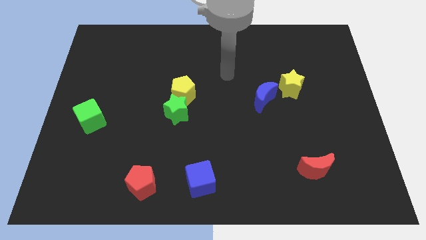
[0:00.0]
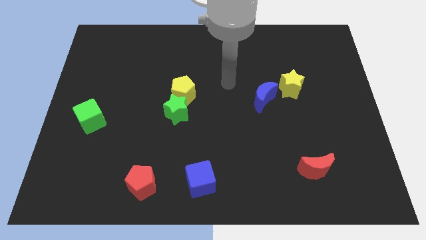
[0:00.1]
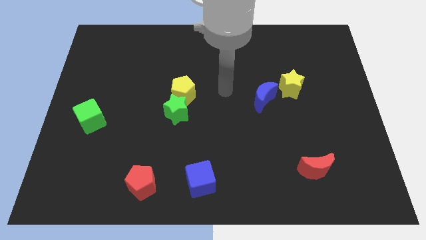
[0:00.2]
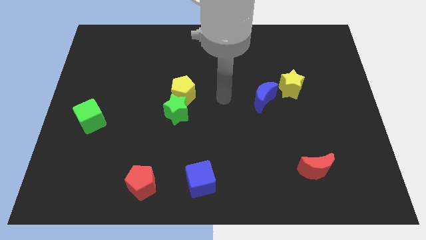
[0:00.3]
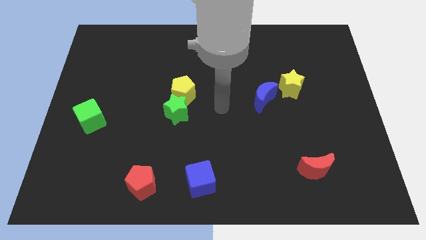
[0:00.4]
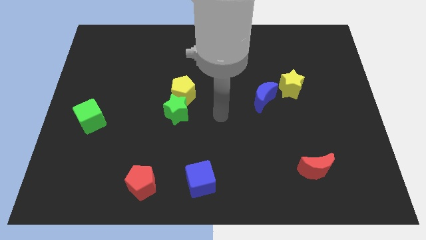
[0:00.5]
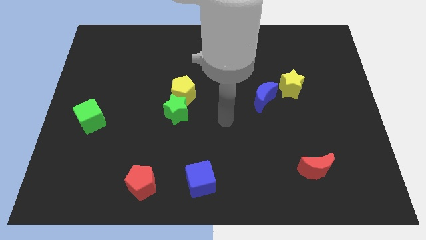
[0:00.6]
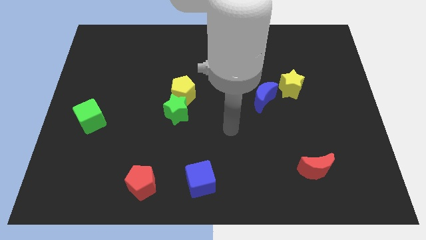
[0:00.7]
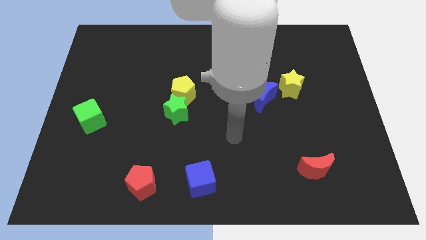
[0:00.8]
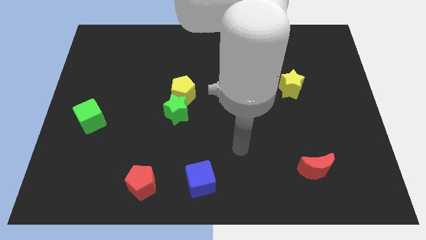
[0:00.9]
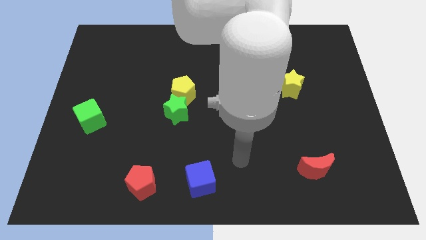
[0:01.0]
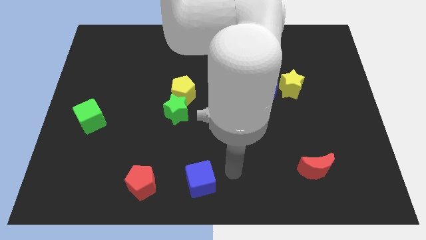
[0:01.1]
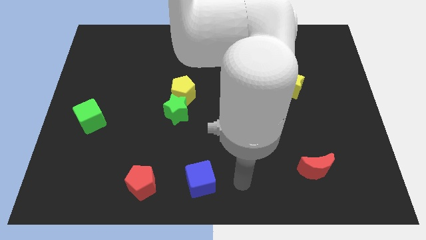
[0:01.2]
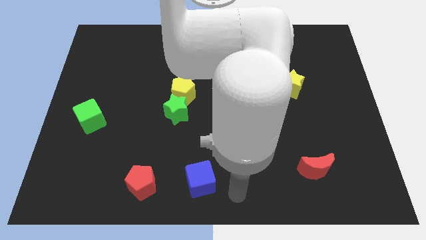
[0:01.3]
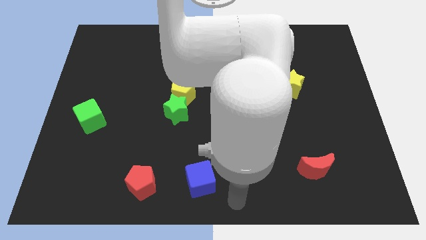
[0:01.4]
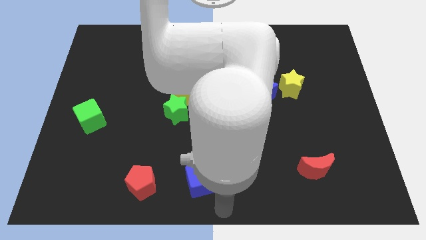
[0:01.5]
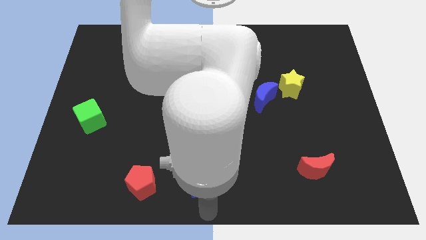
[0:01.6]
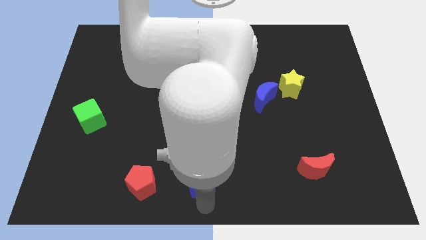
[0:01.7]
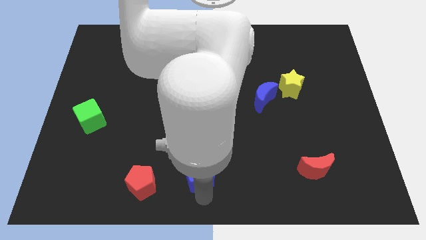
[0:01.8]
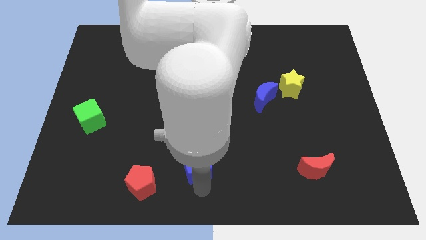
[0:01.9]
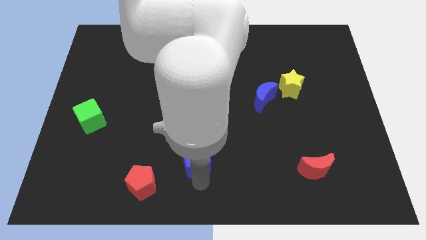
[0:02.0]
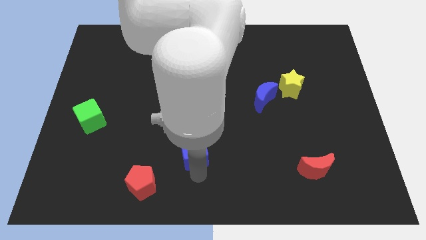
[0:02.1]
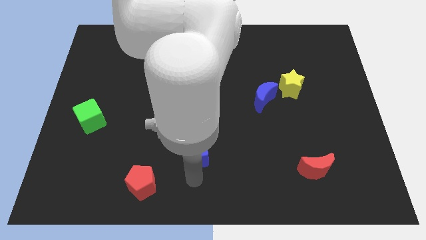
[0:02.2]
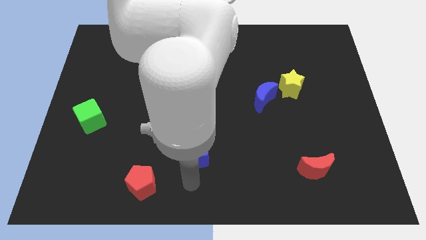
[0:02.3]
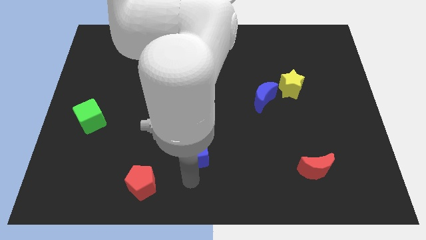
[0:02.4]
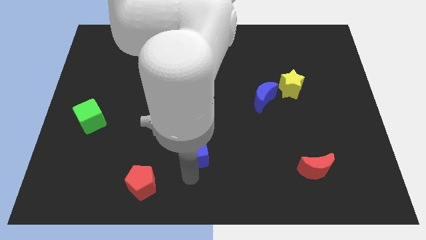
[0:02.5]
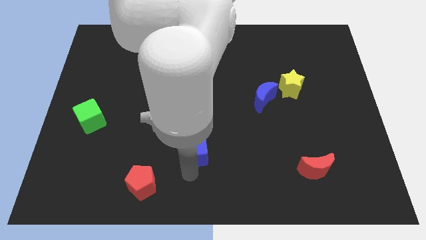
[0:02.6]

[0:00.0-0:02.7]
slide the blue cube up a bit

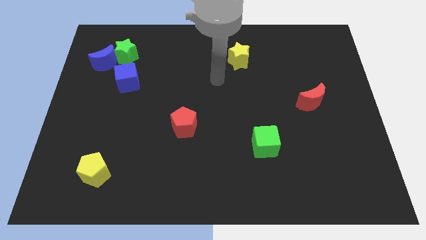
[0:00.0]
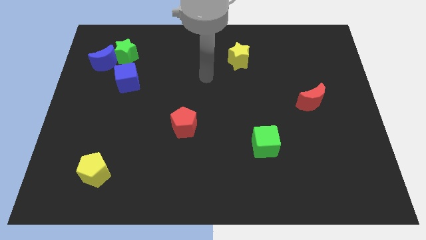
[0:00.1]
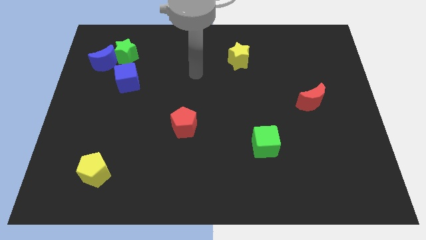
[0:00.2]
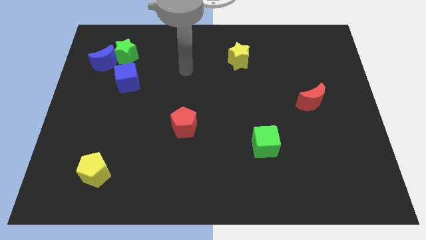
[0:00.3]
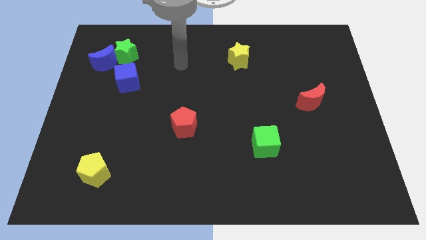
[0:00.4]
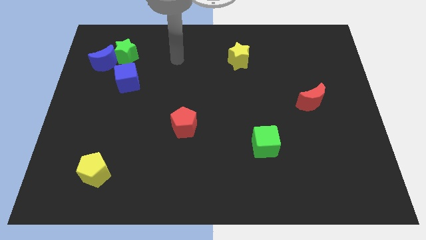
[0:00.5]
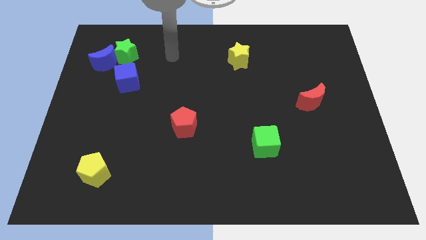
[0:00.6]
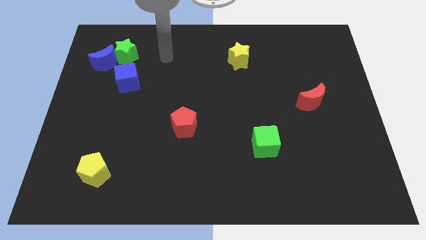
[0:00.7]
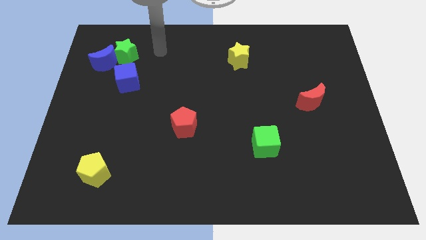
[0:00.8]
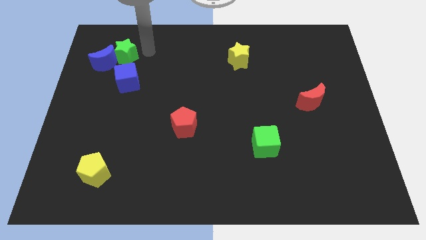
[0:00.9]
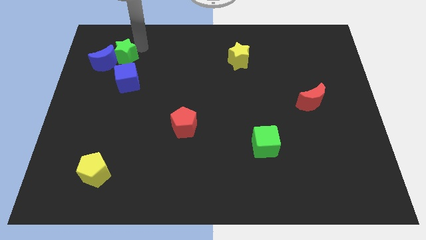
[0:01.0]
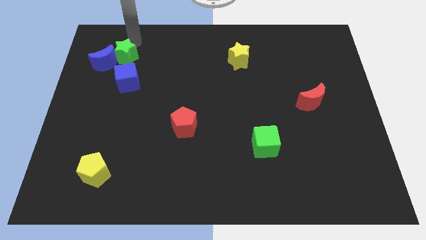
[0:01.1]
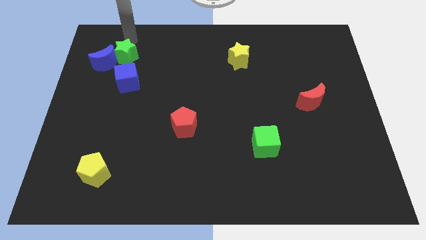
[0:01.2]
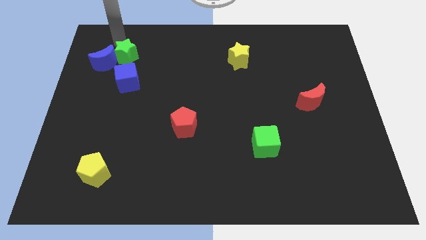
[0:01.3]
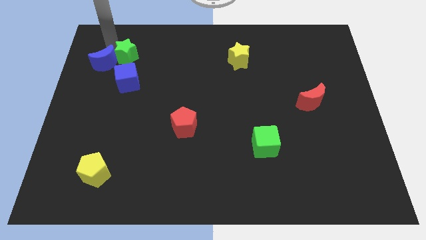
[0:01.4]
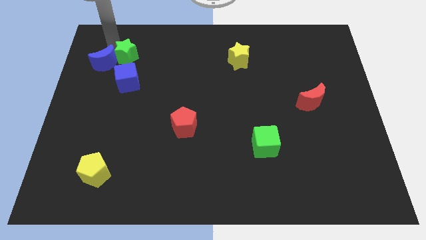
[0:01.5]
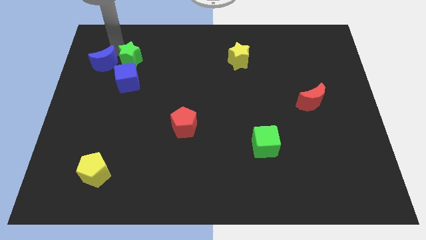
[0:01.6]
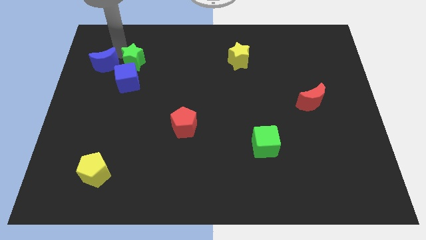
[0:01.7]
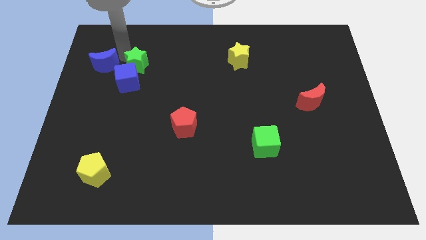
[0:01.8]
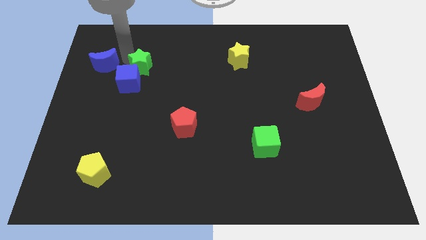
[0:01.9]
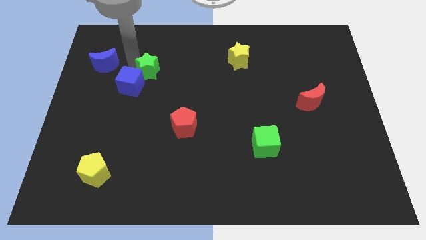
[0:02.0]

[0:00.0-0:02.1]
slide the green star diagonally down and to the right a little bit

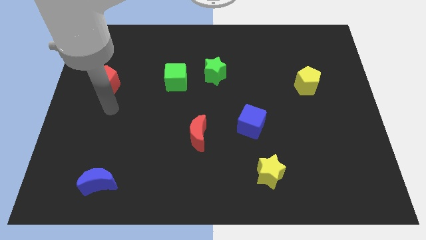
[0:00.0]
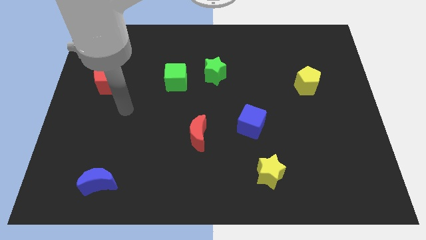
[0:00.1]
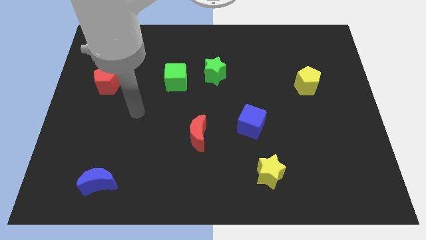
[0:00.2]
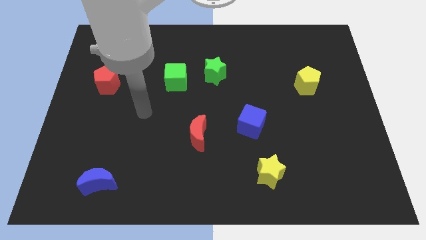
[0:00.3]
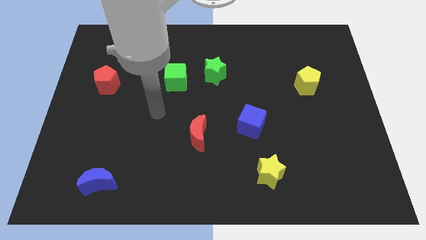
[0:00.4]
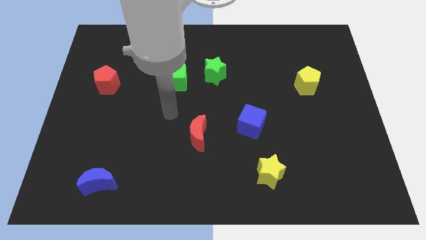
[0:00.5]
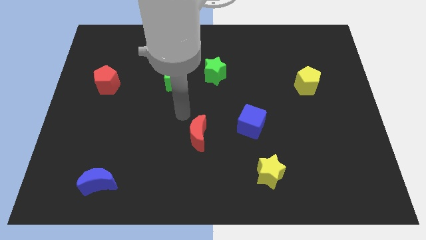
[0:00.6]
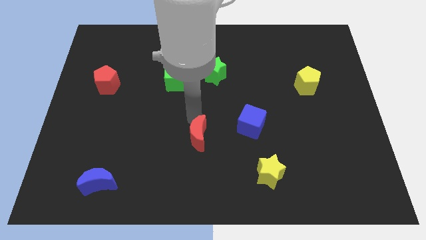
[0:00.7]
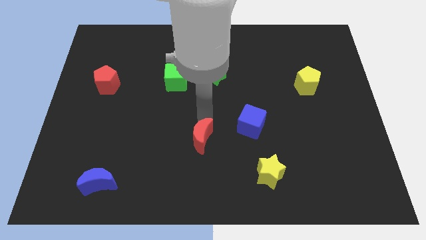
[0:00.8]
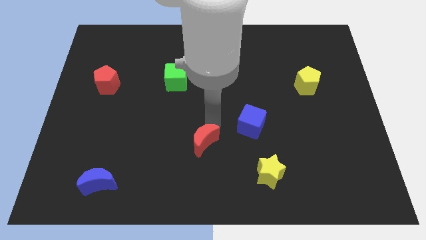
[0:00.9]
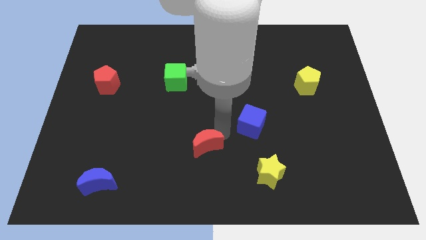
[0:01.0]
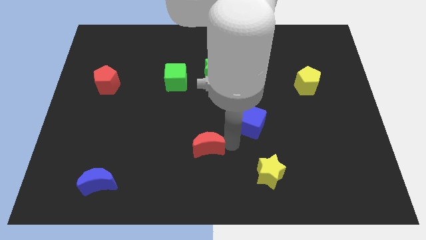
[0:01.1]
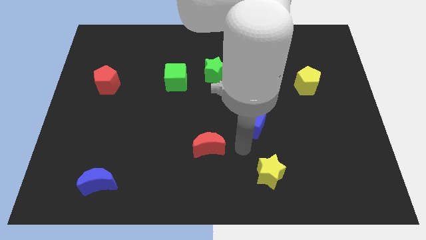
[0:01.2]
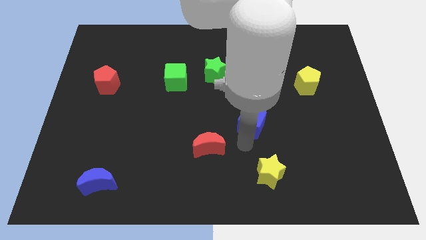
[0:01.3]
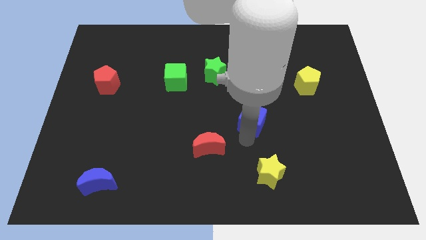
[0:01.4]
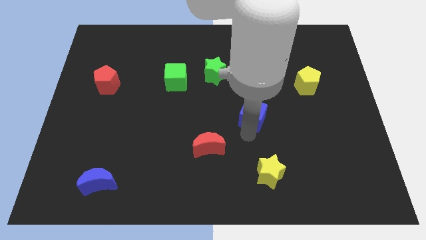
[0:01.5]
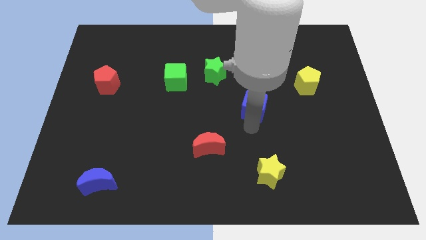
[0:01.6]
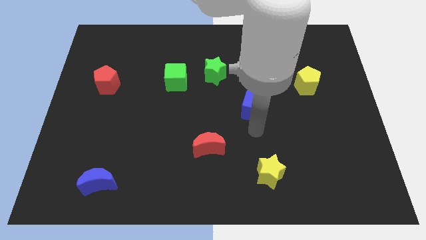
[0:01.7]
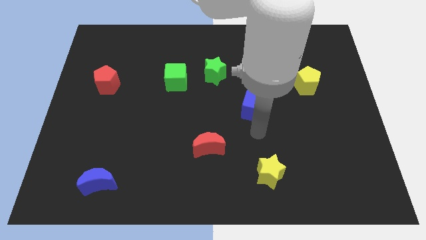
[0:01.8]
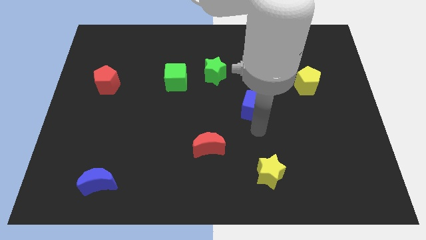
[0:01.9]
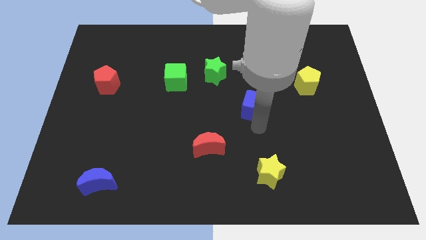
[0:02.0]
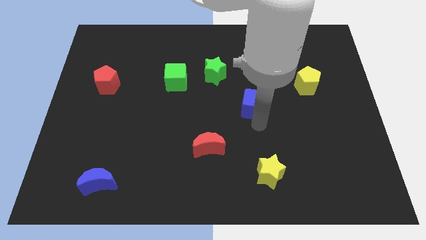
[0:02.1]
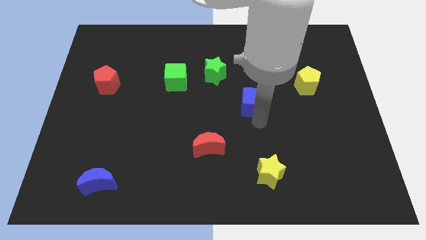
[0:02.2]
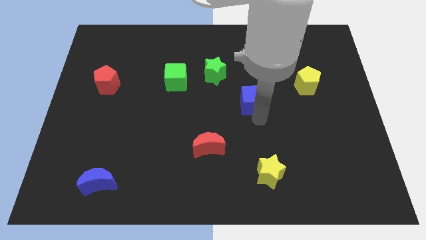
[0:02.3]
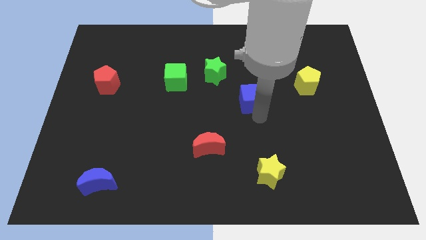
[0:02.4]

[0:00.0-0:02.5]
move the blue cube slightly upwards

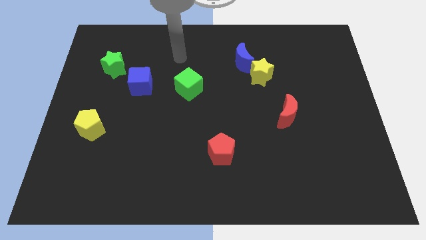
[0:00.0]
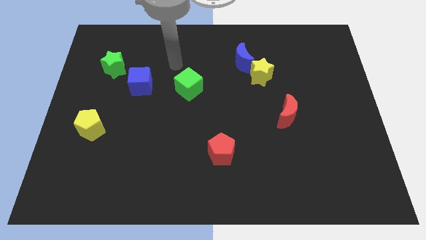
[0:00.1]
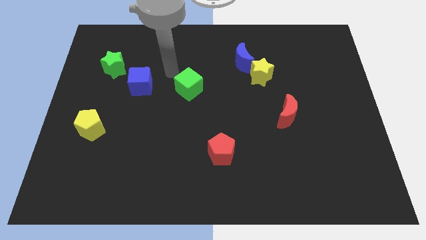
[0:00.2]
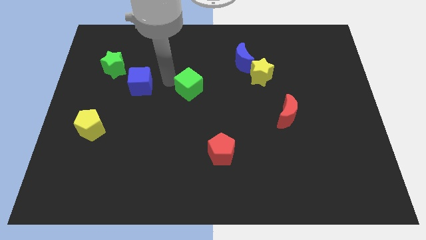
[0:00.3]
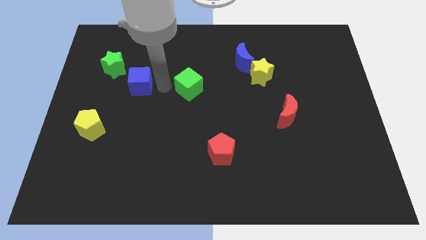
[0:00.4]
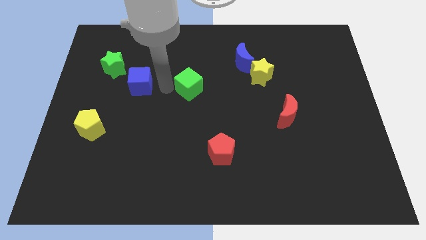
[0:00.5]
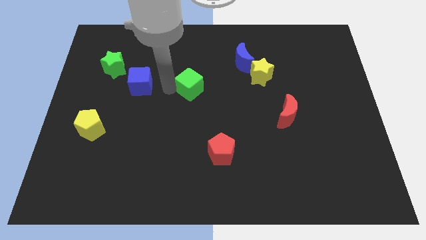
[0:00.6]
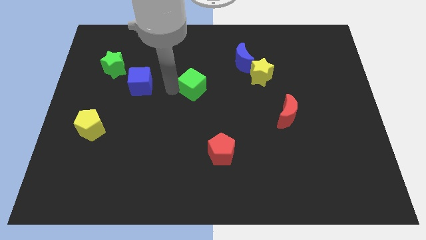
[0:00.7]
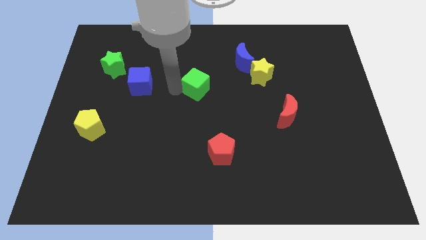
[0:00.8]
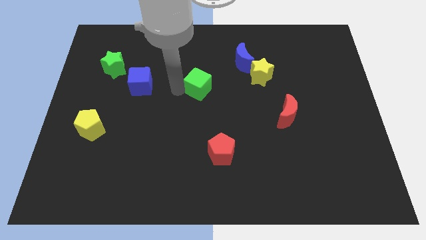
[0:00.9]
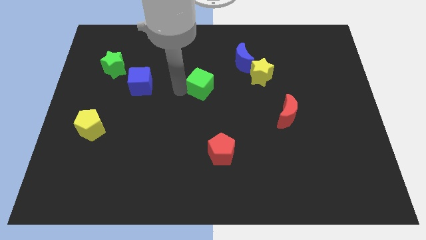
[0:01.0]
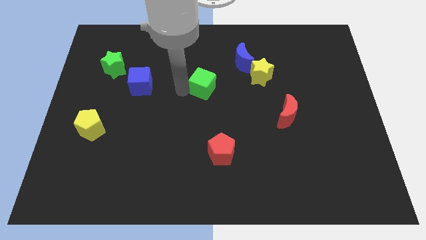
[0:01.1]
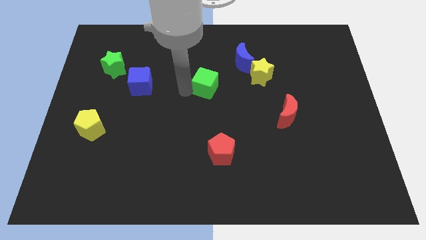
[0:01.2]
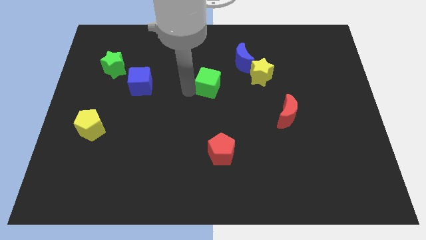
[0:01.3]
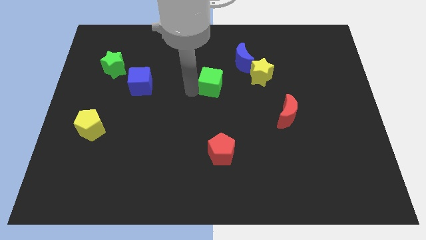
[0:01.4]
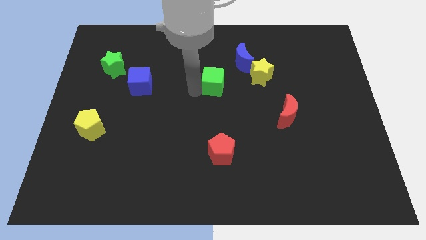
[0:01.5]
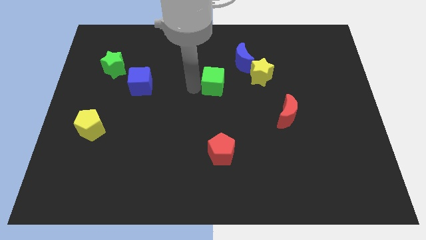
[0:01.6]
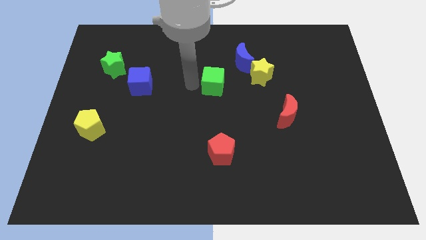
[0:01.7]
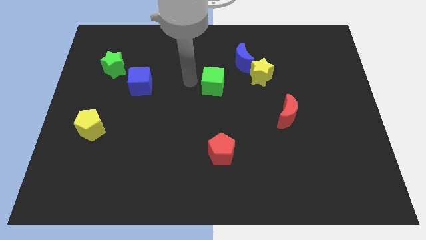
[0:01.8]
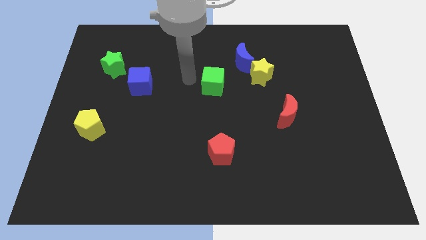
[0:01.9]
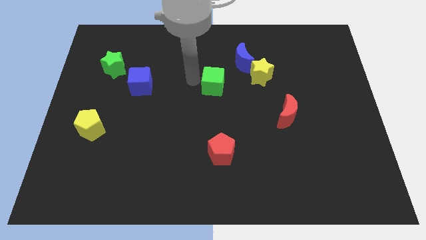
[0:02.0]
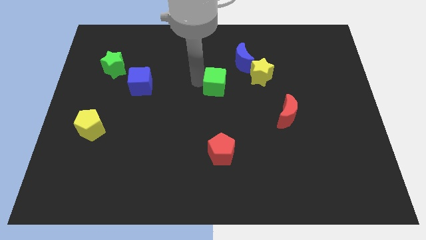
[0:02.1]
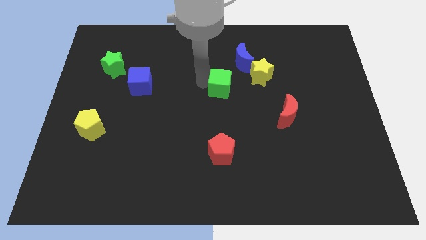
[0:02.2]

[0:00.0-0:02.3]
push the green cube to the right a little
